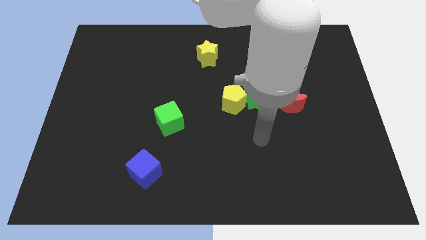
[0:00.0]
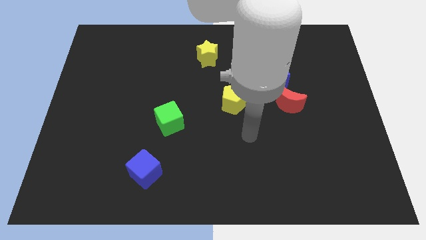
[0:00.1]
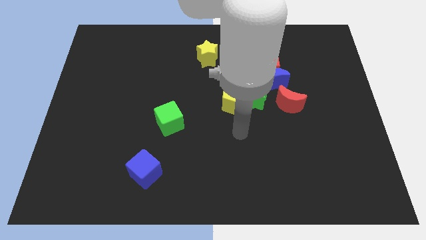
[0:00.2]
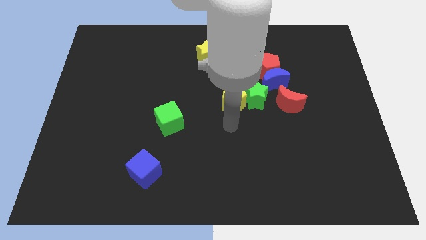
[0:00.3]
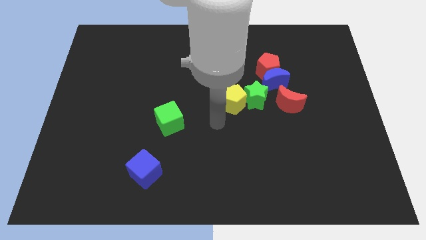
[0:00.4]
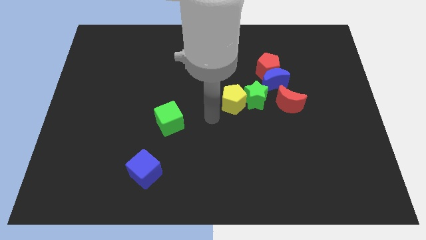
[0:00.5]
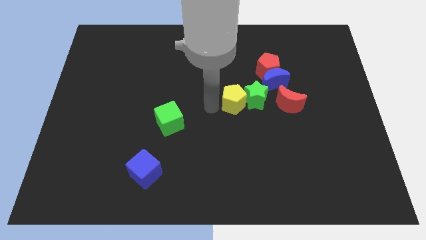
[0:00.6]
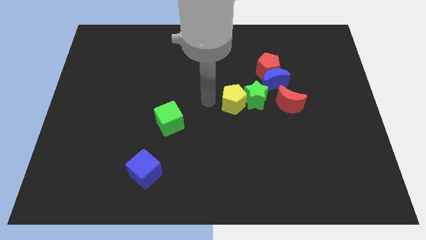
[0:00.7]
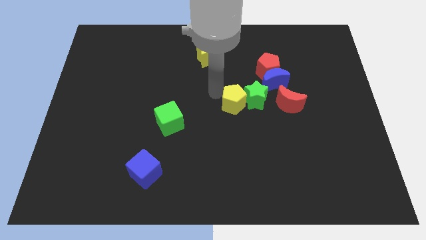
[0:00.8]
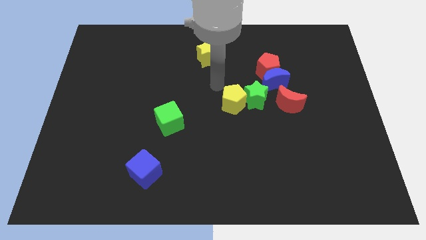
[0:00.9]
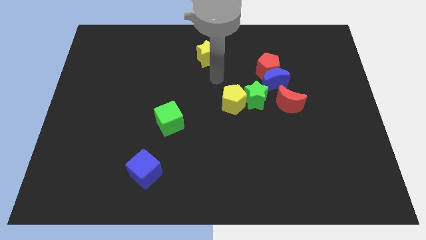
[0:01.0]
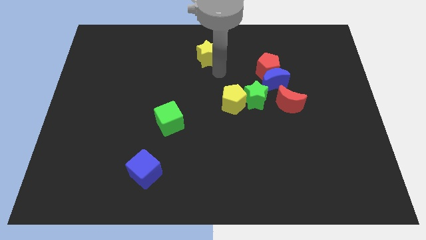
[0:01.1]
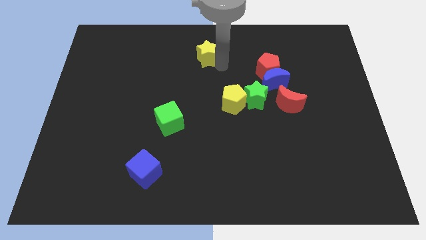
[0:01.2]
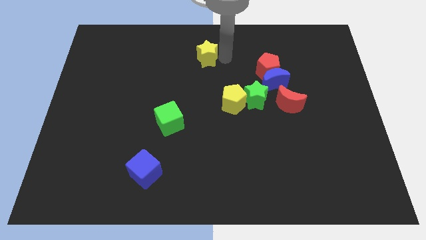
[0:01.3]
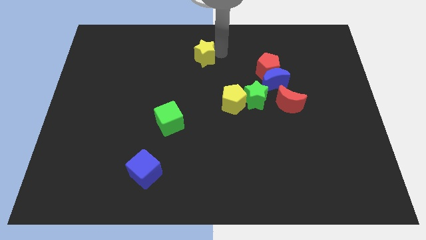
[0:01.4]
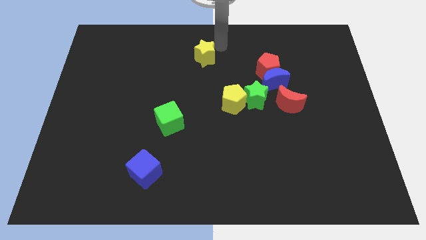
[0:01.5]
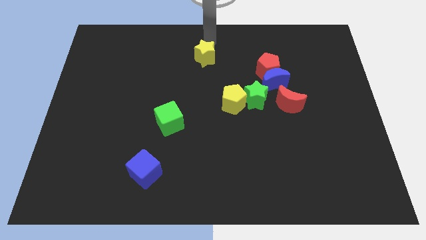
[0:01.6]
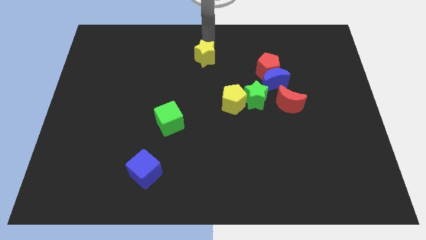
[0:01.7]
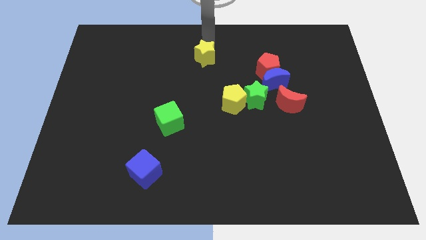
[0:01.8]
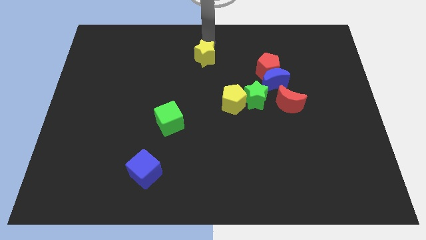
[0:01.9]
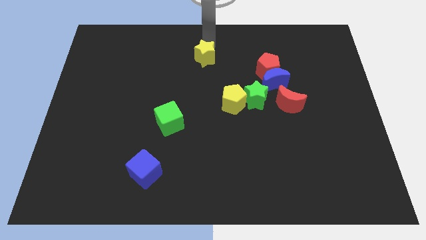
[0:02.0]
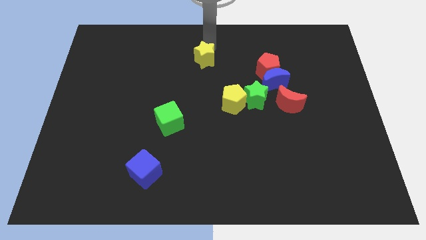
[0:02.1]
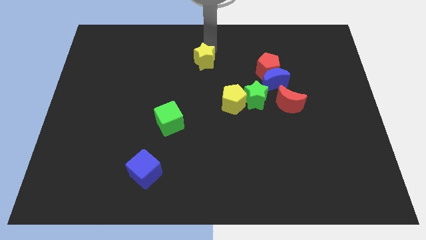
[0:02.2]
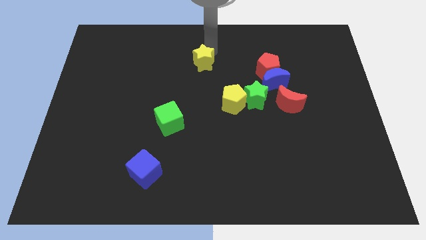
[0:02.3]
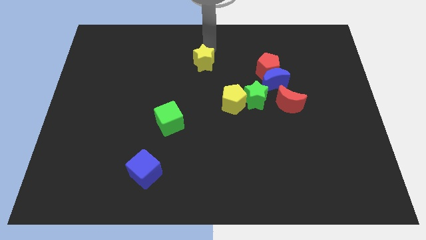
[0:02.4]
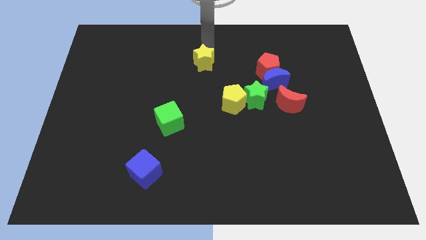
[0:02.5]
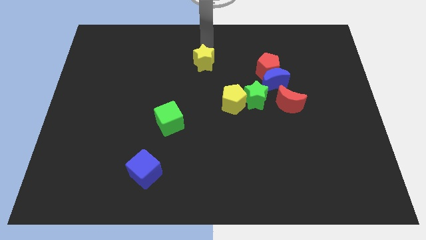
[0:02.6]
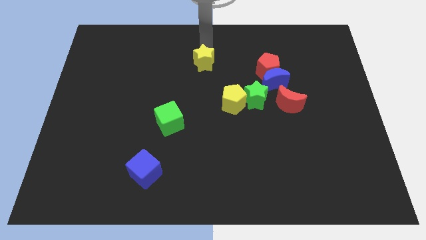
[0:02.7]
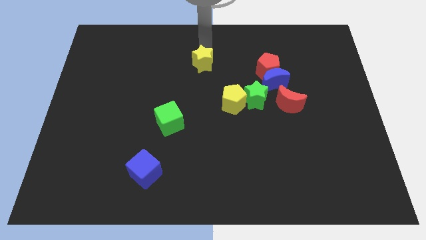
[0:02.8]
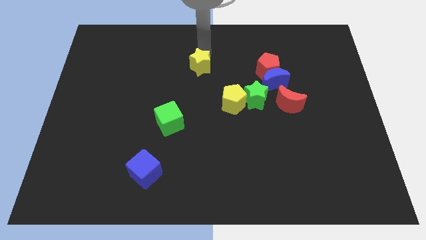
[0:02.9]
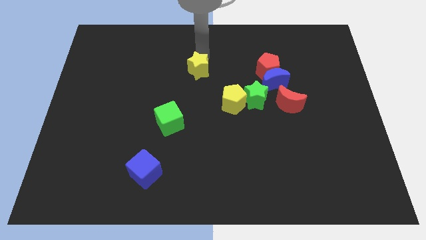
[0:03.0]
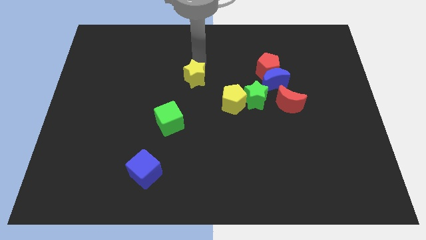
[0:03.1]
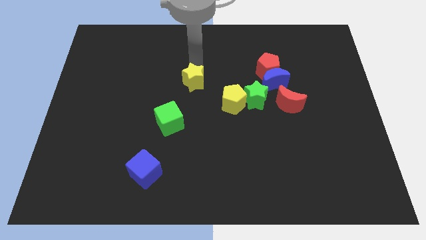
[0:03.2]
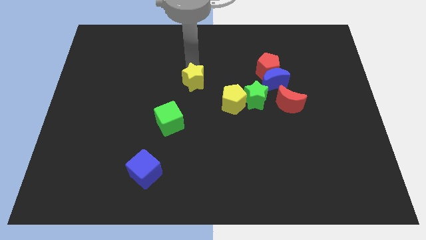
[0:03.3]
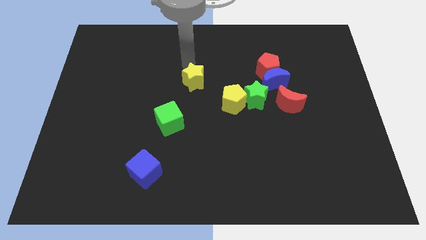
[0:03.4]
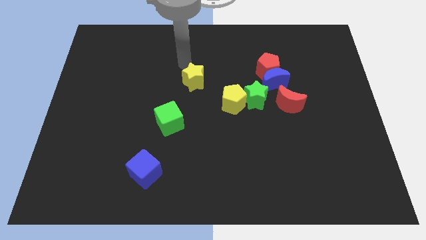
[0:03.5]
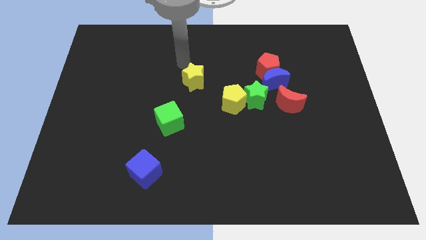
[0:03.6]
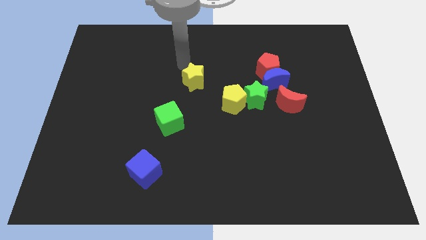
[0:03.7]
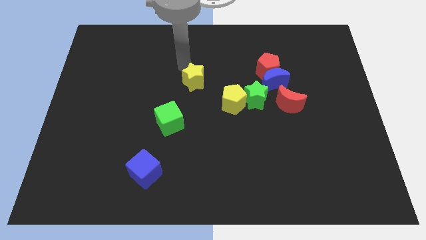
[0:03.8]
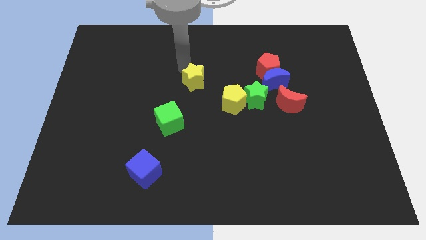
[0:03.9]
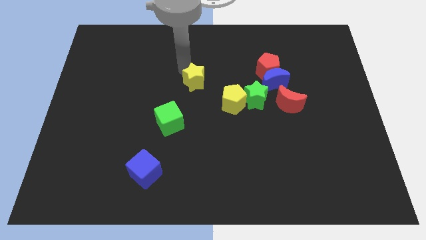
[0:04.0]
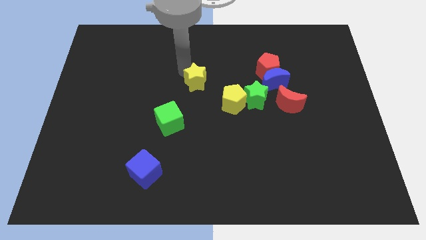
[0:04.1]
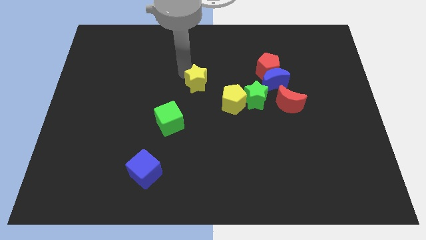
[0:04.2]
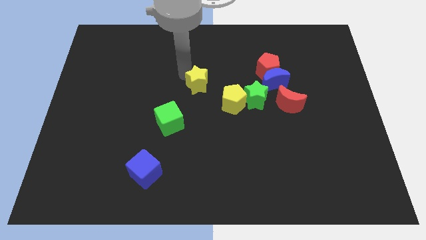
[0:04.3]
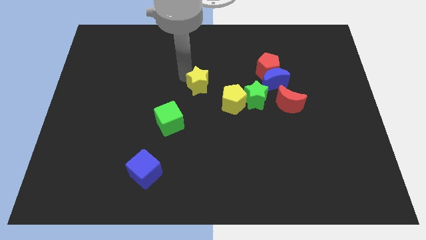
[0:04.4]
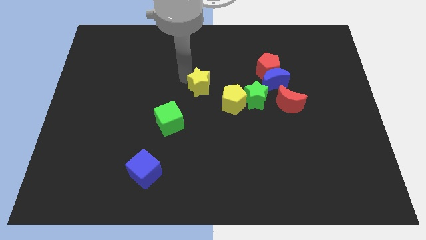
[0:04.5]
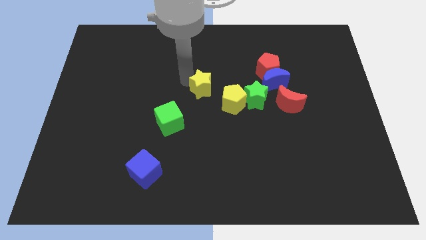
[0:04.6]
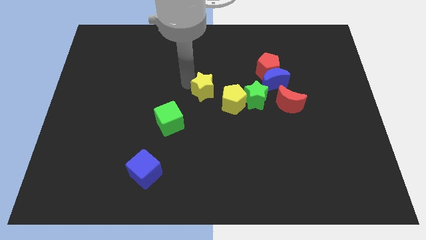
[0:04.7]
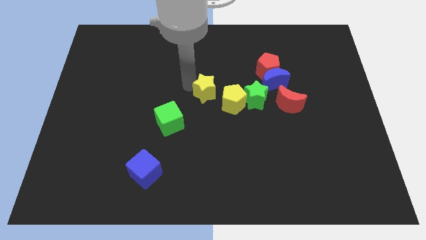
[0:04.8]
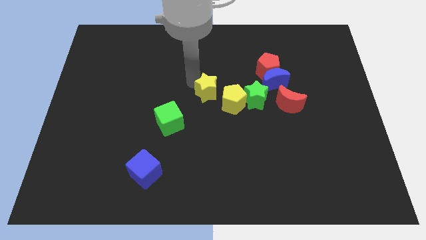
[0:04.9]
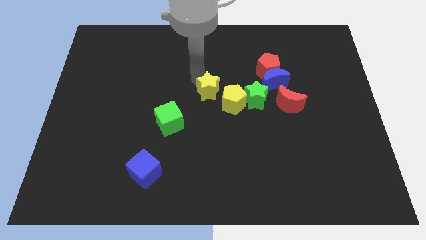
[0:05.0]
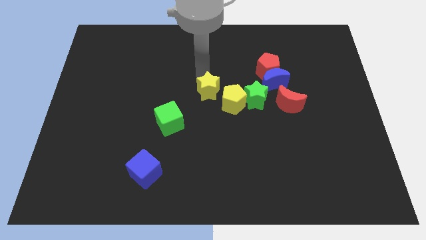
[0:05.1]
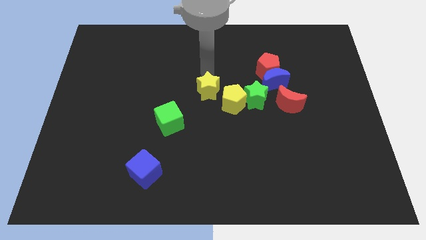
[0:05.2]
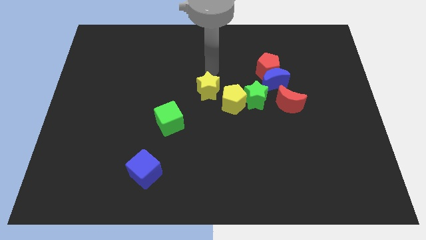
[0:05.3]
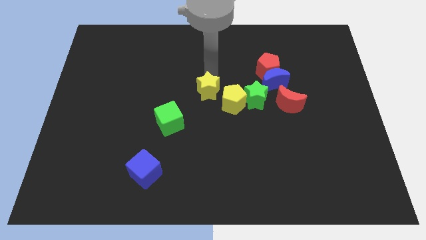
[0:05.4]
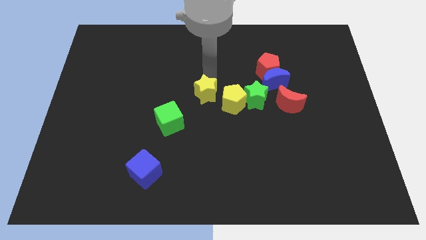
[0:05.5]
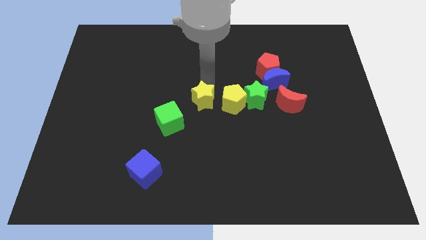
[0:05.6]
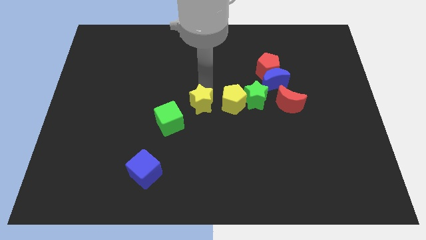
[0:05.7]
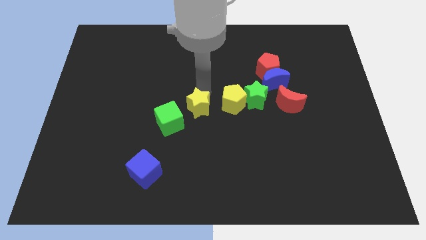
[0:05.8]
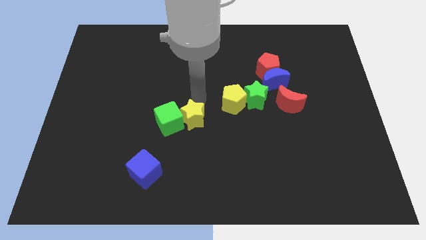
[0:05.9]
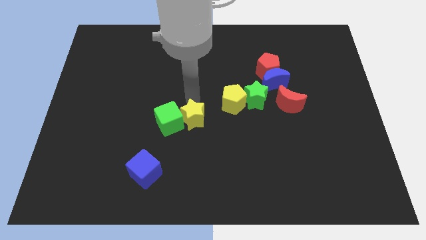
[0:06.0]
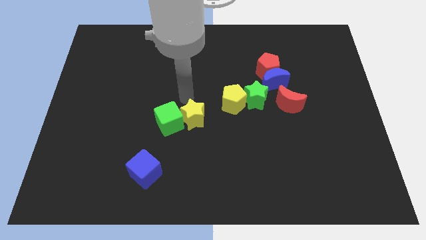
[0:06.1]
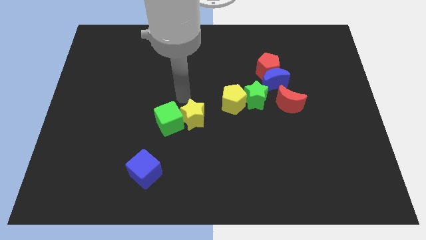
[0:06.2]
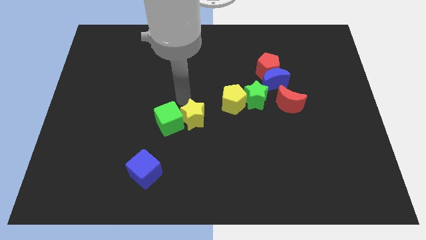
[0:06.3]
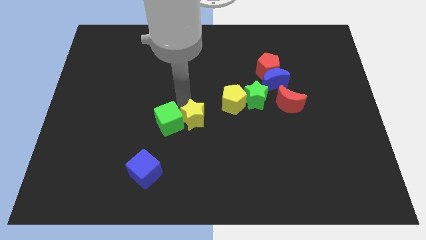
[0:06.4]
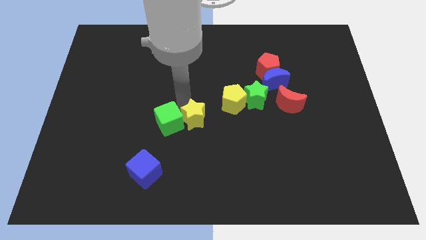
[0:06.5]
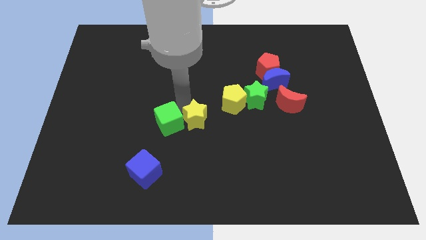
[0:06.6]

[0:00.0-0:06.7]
push the yellow star down

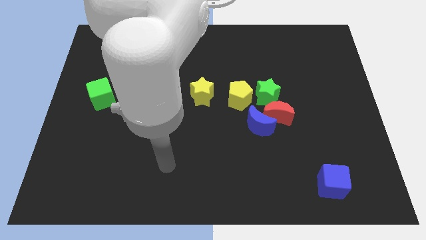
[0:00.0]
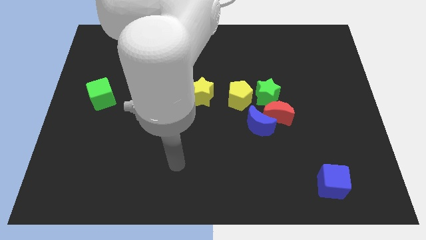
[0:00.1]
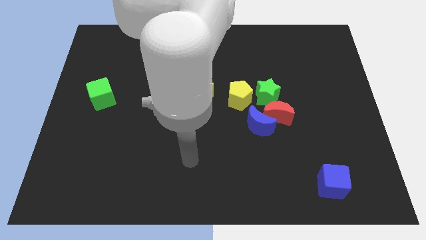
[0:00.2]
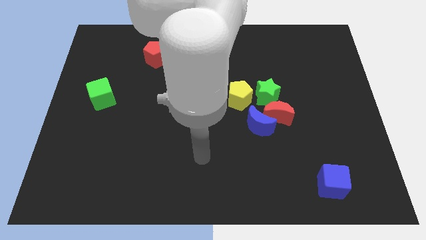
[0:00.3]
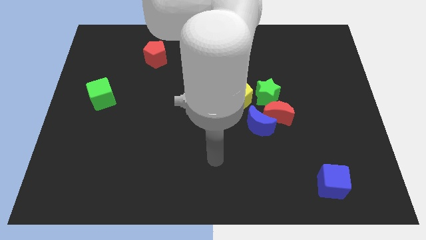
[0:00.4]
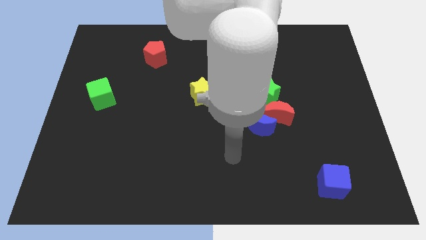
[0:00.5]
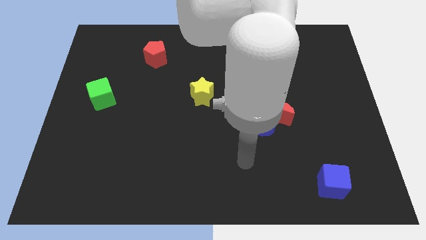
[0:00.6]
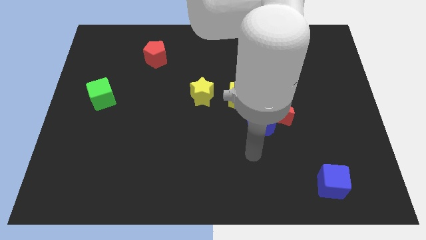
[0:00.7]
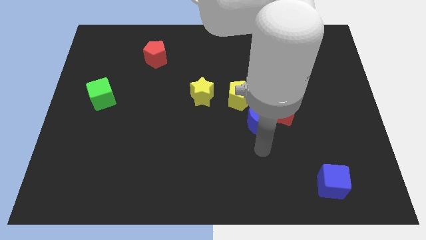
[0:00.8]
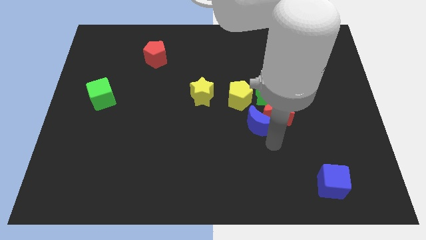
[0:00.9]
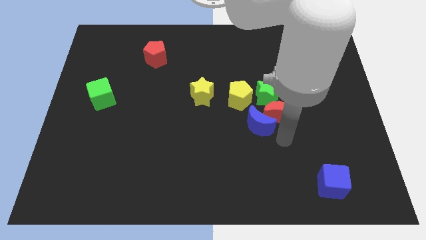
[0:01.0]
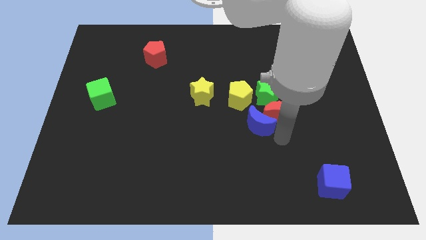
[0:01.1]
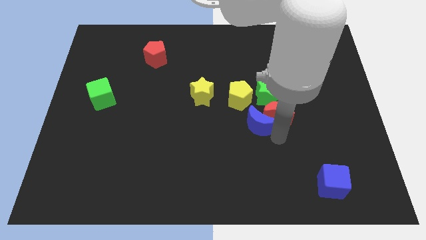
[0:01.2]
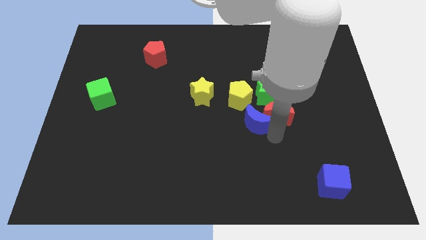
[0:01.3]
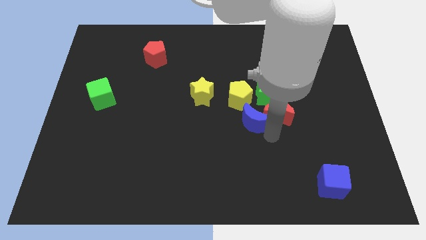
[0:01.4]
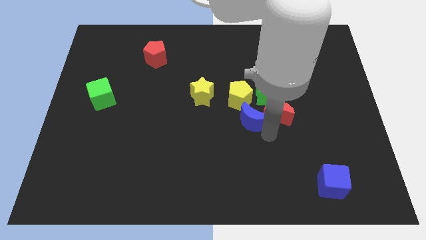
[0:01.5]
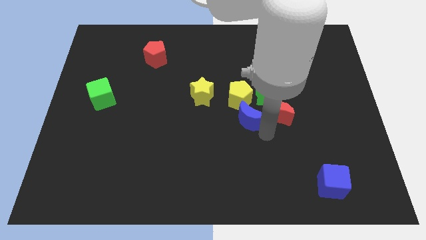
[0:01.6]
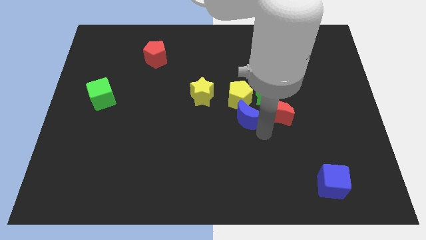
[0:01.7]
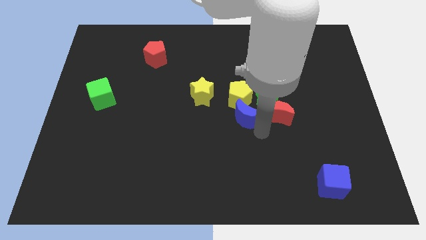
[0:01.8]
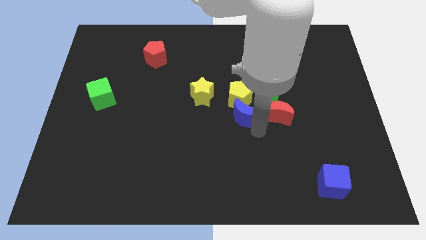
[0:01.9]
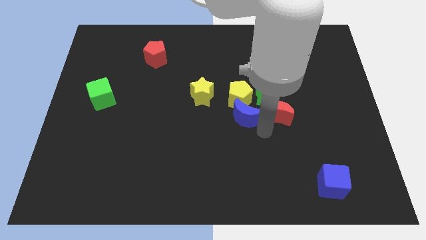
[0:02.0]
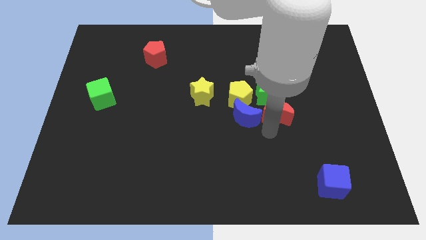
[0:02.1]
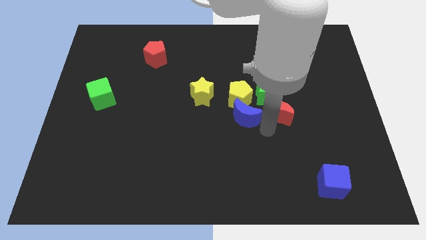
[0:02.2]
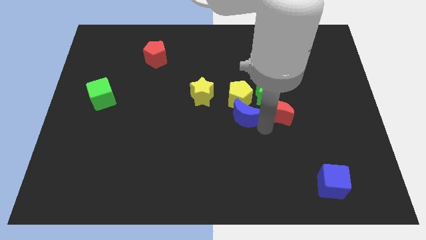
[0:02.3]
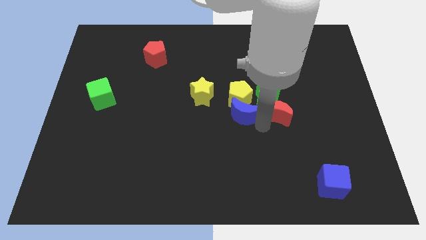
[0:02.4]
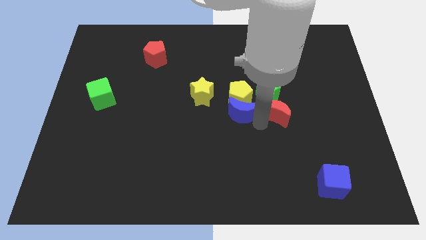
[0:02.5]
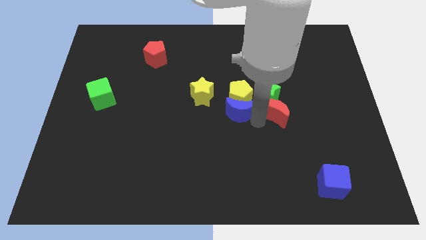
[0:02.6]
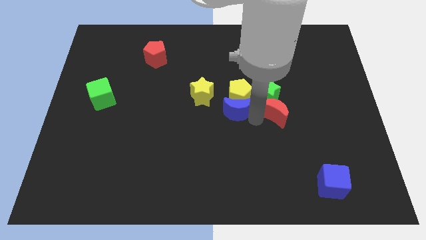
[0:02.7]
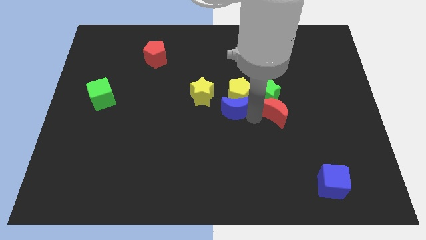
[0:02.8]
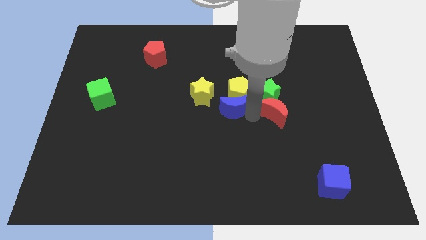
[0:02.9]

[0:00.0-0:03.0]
move the blue moon upwards and to the left a little bit
